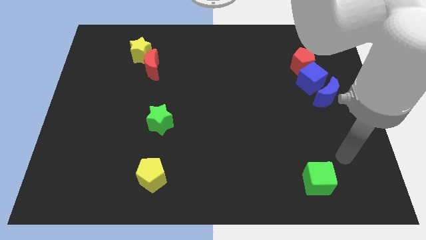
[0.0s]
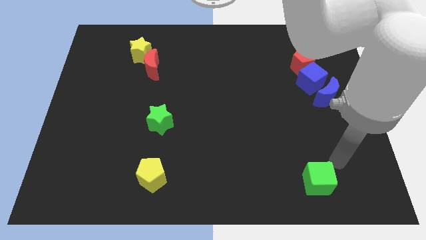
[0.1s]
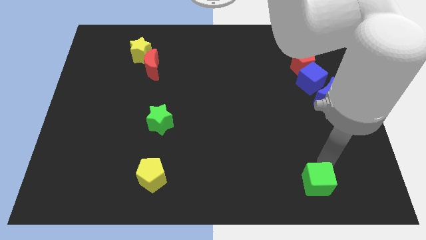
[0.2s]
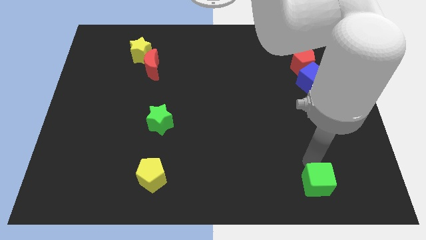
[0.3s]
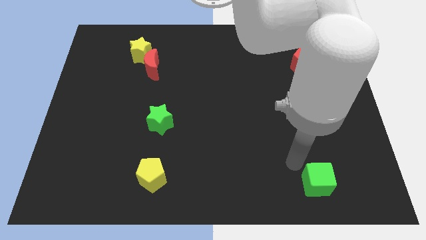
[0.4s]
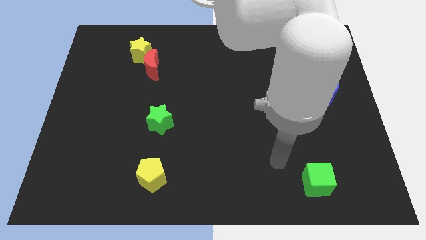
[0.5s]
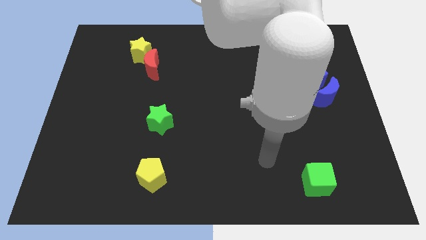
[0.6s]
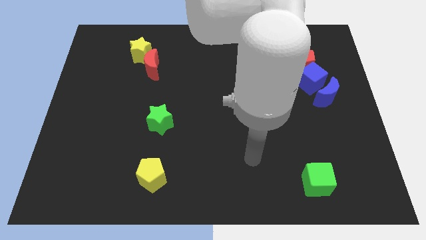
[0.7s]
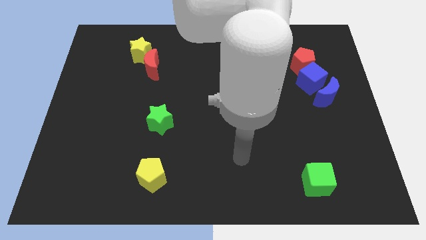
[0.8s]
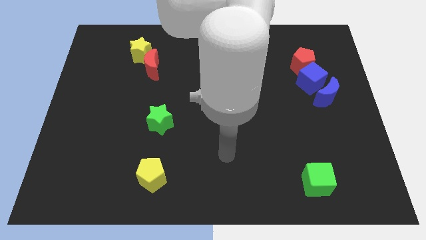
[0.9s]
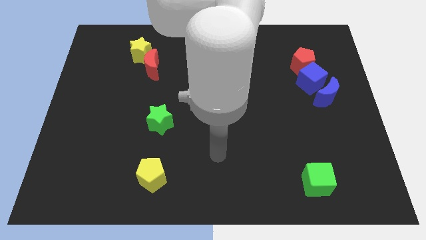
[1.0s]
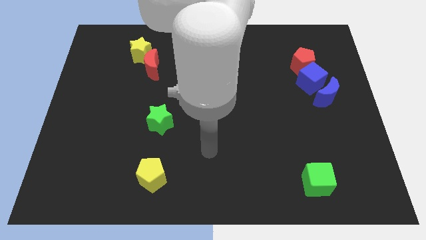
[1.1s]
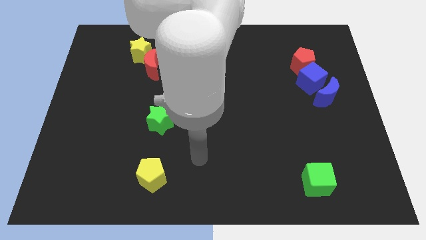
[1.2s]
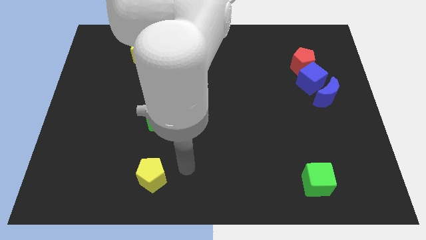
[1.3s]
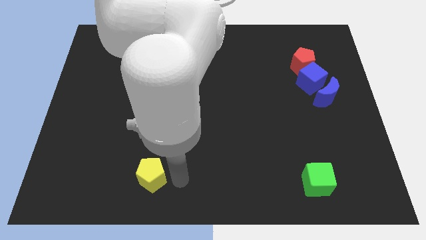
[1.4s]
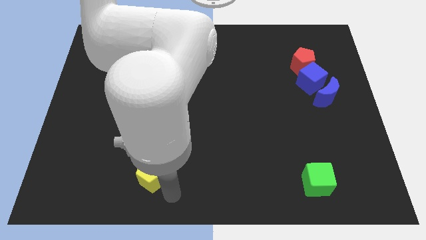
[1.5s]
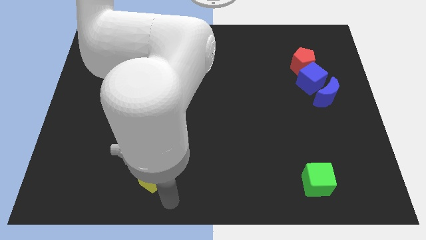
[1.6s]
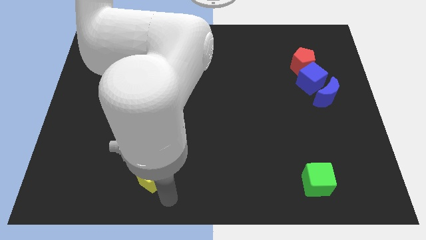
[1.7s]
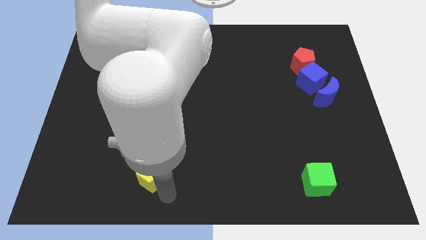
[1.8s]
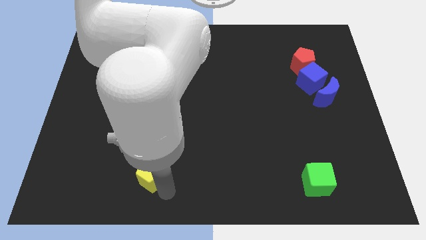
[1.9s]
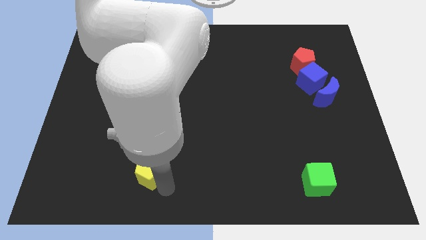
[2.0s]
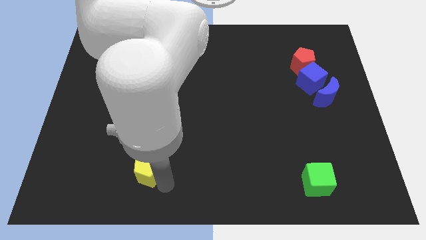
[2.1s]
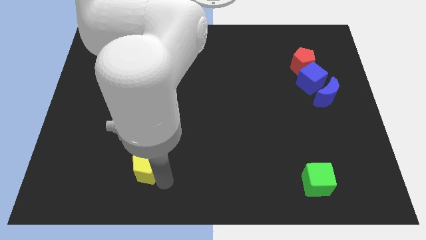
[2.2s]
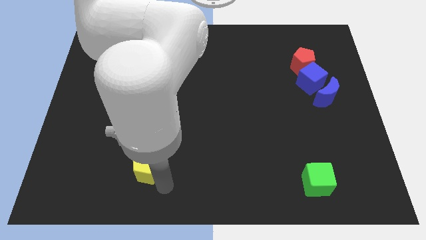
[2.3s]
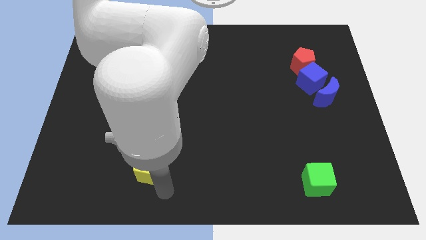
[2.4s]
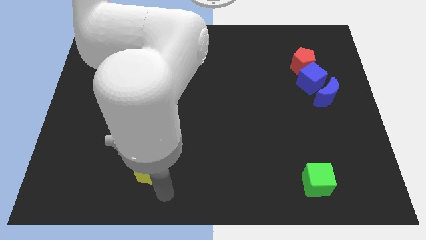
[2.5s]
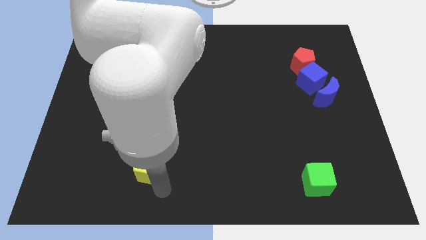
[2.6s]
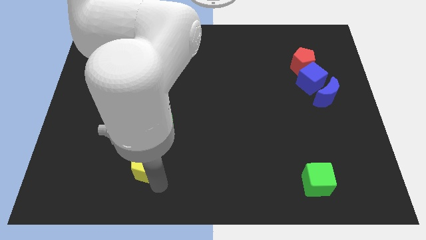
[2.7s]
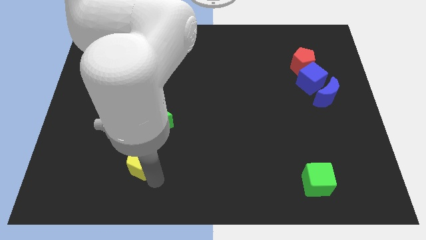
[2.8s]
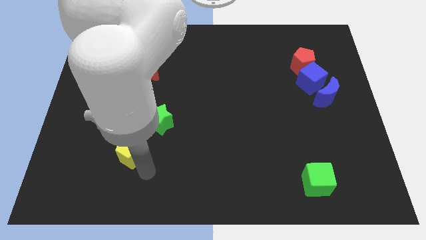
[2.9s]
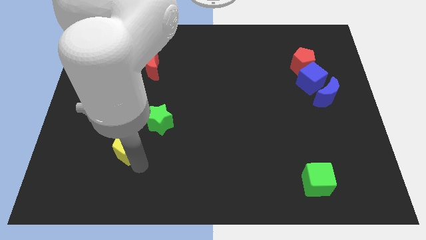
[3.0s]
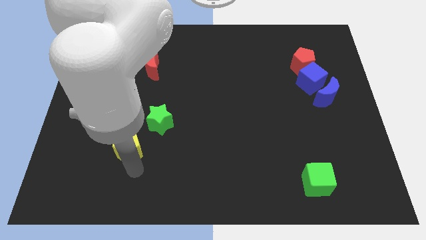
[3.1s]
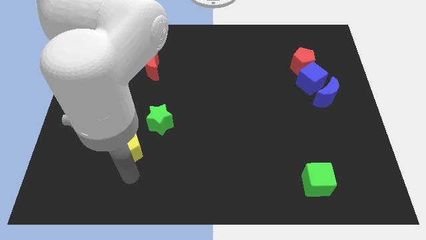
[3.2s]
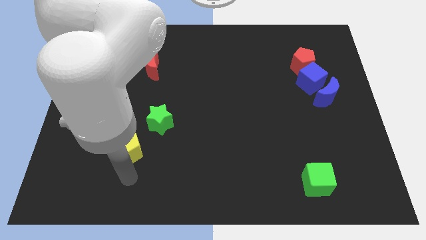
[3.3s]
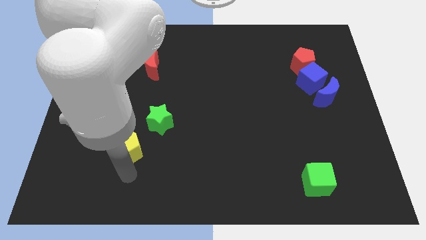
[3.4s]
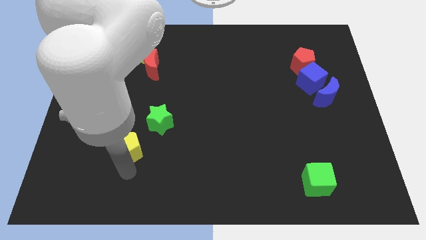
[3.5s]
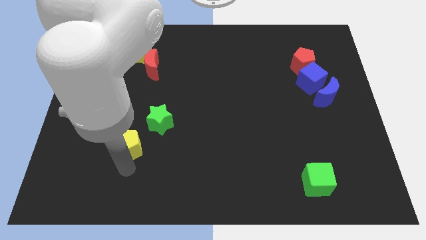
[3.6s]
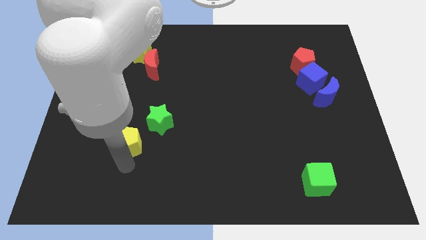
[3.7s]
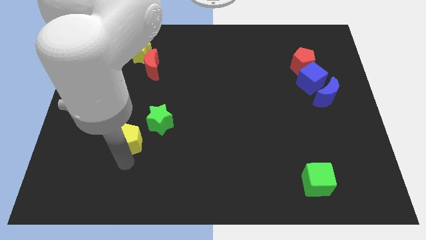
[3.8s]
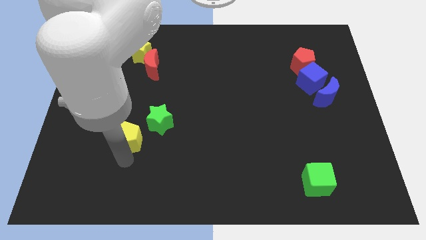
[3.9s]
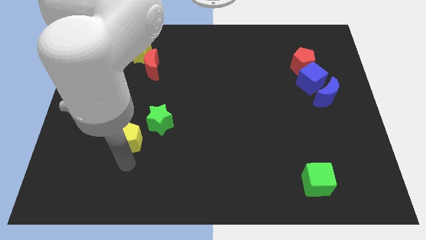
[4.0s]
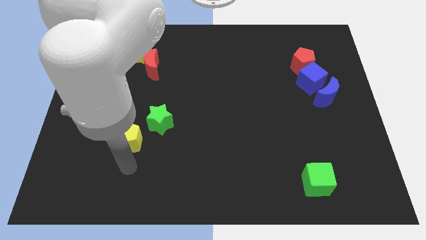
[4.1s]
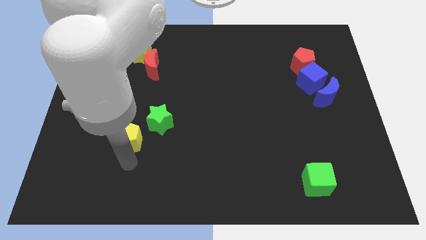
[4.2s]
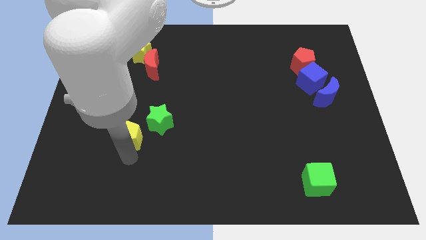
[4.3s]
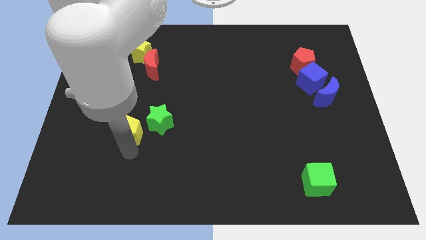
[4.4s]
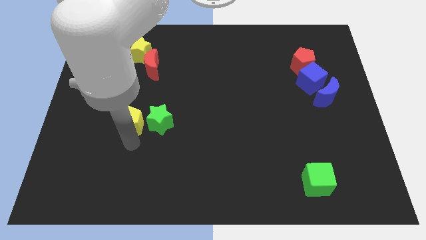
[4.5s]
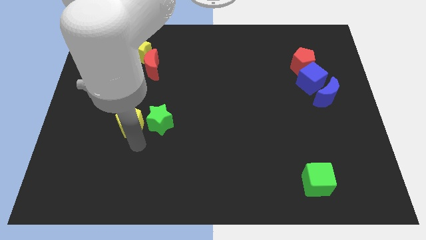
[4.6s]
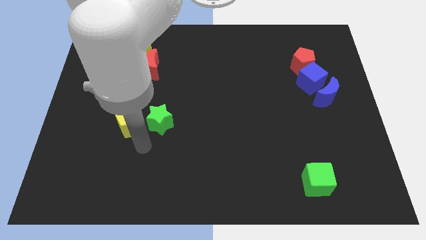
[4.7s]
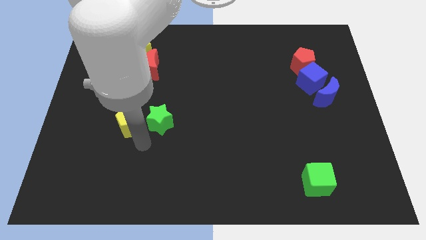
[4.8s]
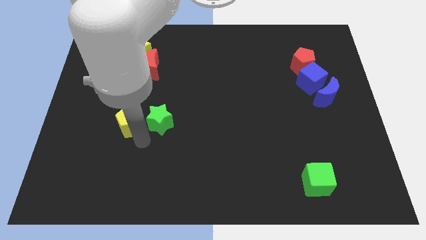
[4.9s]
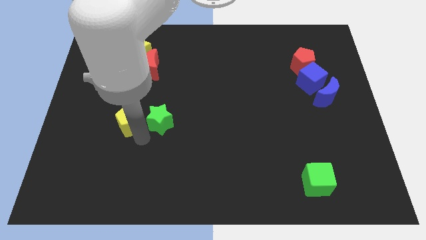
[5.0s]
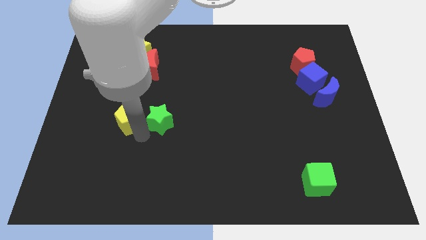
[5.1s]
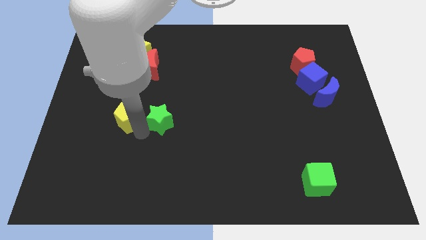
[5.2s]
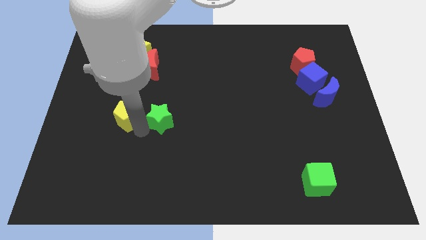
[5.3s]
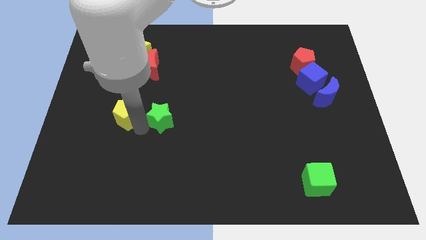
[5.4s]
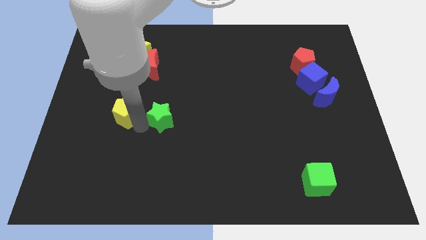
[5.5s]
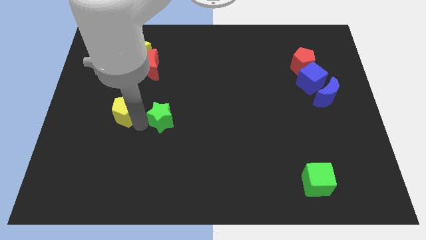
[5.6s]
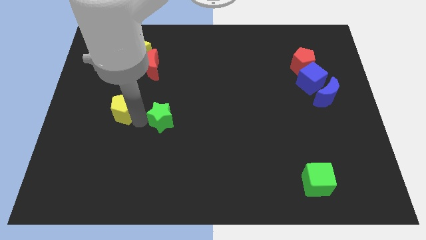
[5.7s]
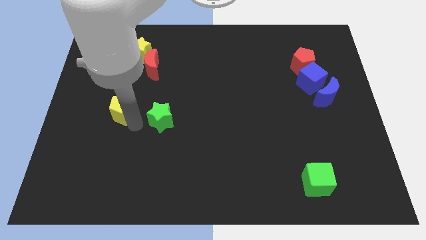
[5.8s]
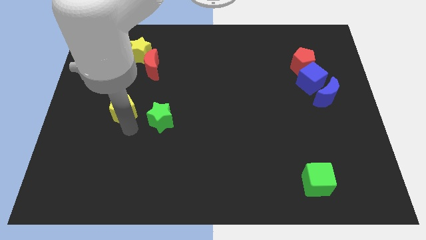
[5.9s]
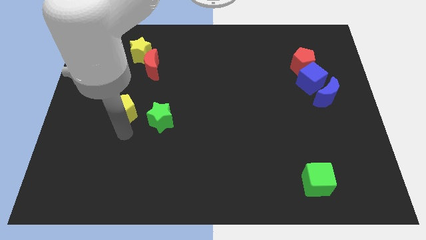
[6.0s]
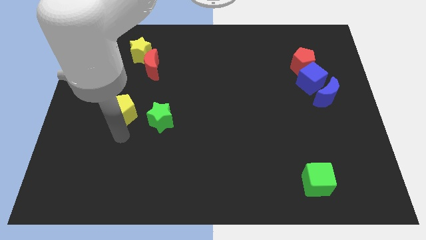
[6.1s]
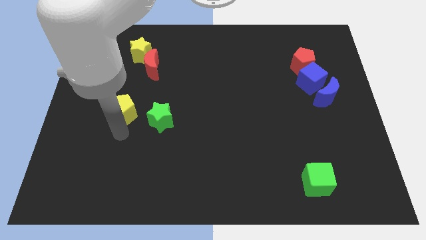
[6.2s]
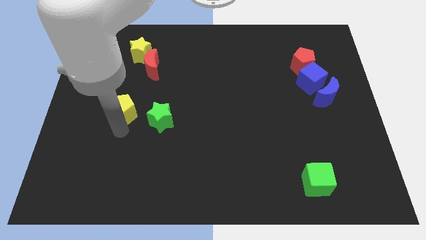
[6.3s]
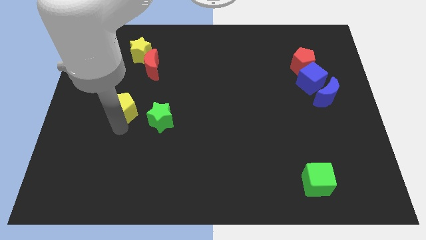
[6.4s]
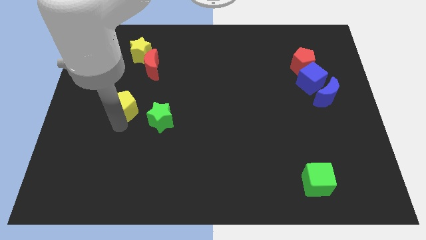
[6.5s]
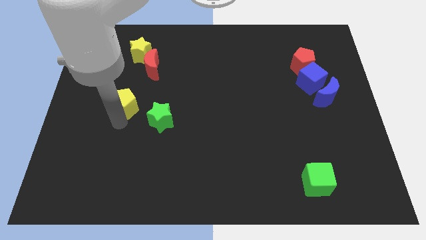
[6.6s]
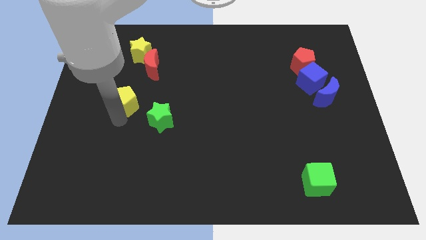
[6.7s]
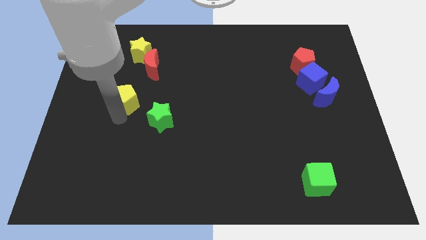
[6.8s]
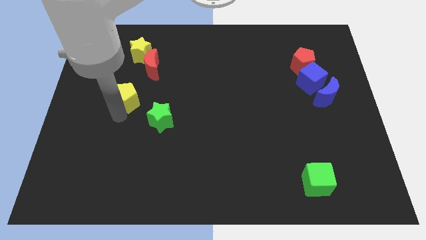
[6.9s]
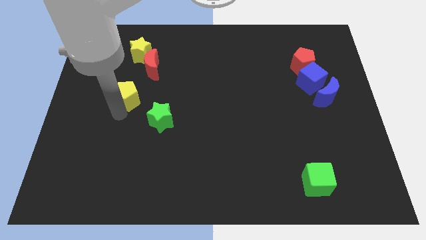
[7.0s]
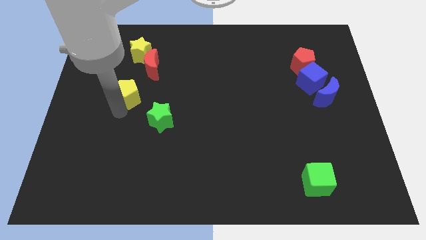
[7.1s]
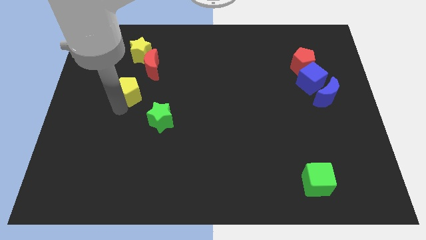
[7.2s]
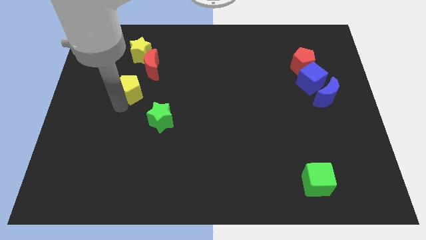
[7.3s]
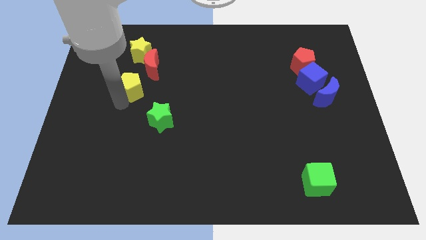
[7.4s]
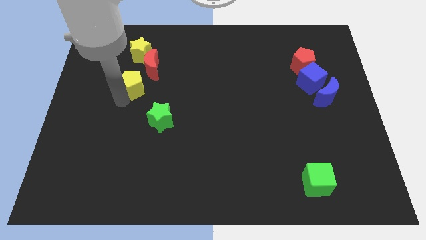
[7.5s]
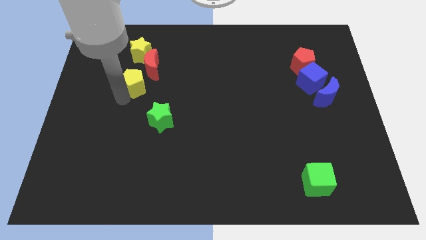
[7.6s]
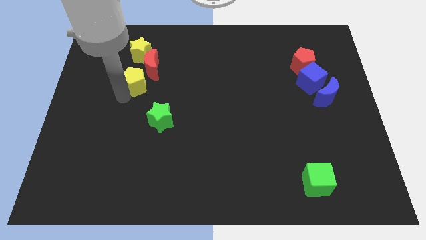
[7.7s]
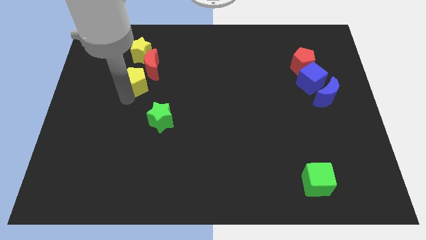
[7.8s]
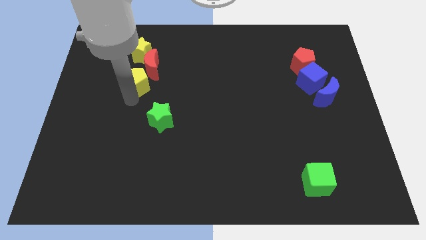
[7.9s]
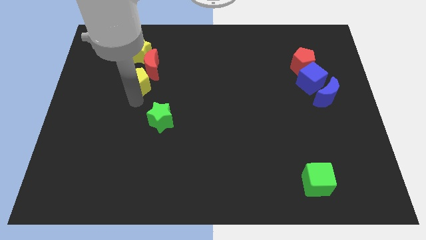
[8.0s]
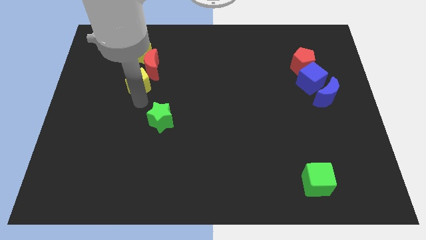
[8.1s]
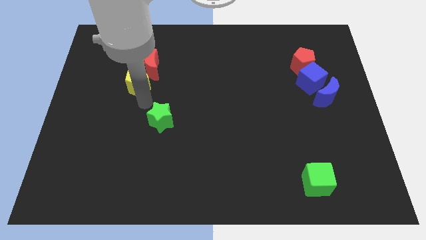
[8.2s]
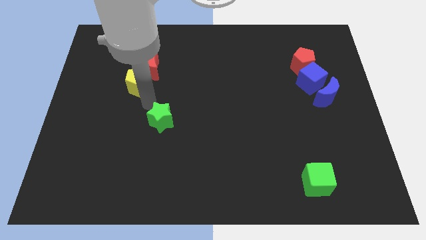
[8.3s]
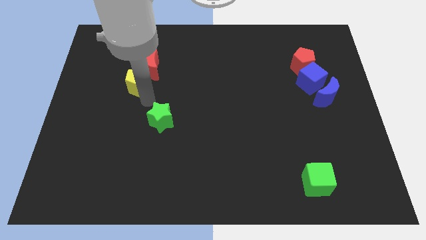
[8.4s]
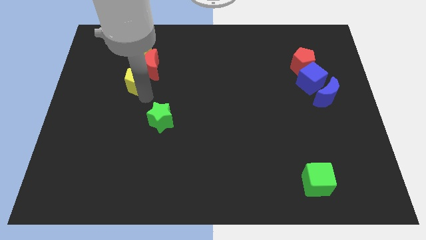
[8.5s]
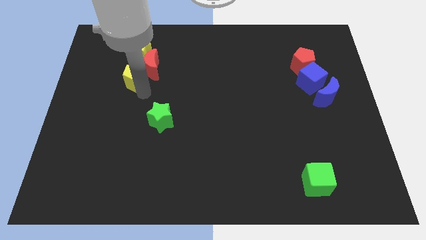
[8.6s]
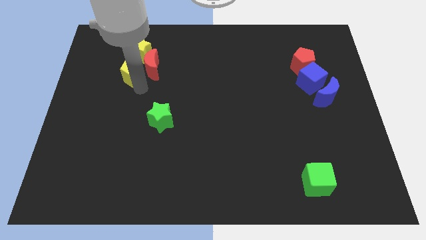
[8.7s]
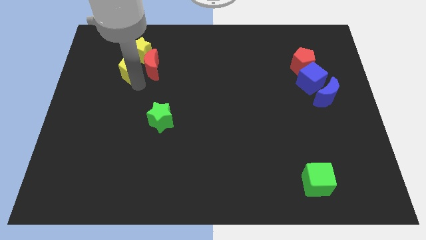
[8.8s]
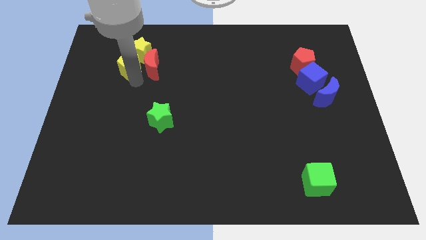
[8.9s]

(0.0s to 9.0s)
slide the yellow pentagon to the yellow star
